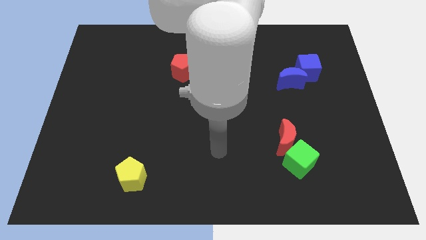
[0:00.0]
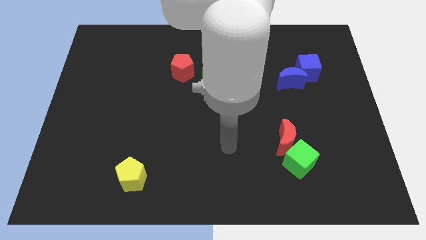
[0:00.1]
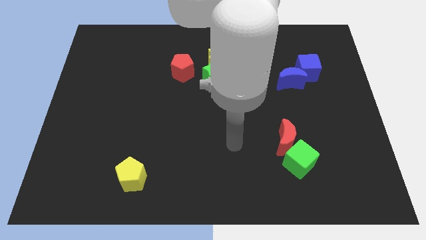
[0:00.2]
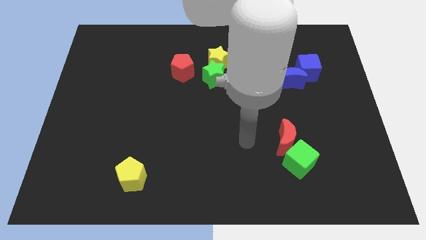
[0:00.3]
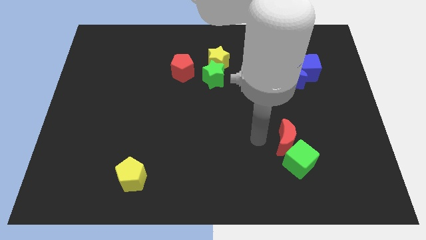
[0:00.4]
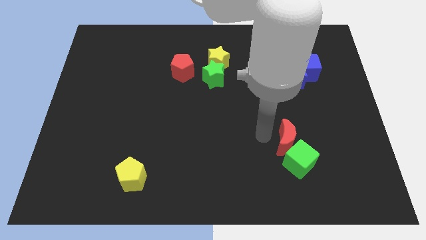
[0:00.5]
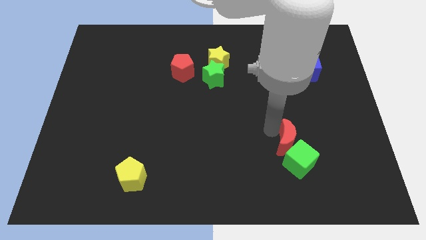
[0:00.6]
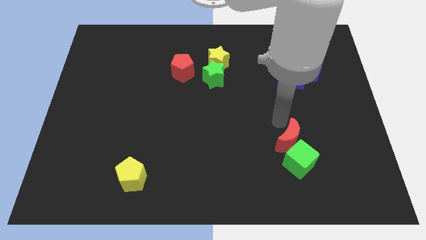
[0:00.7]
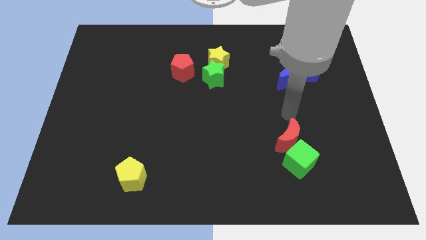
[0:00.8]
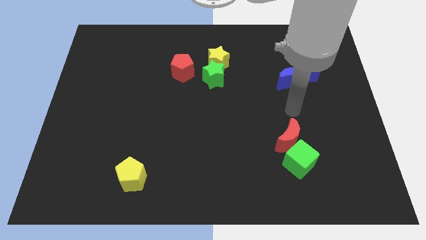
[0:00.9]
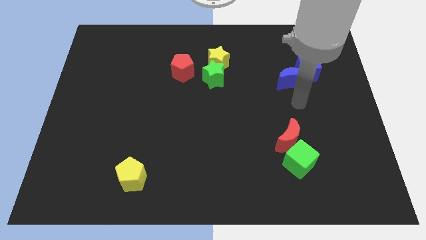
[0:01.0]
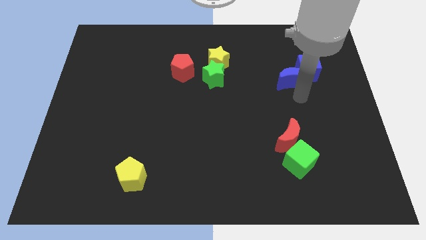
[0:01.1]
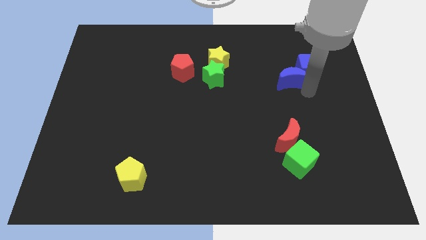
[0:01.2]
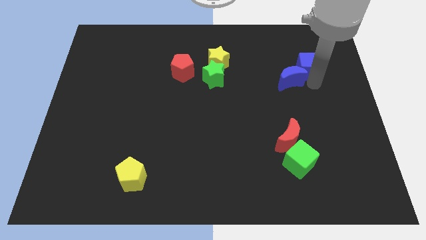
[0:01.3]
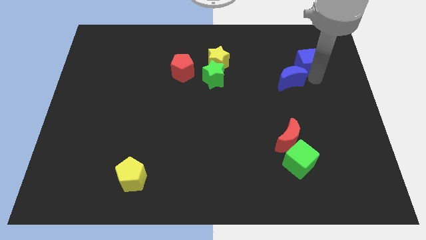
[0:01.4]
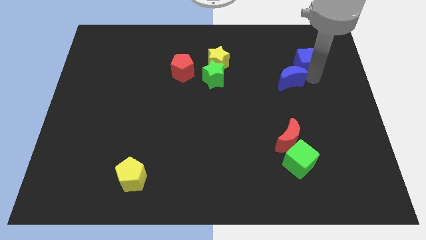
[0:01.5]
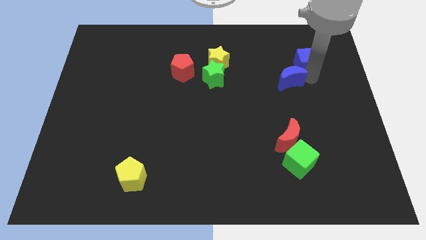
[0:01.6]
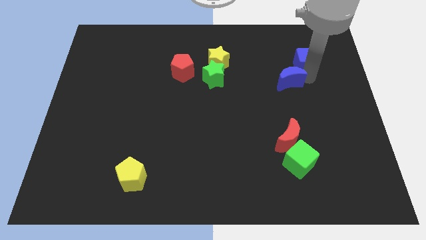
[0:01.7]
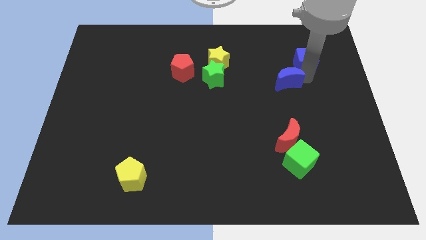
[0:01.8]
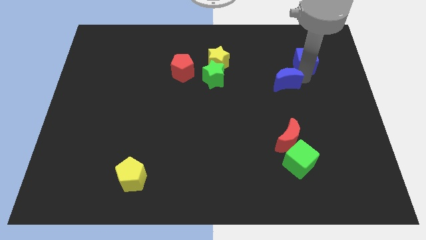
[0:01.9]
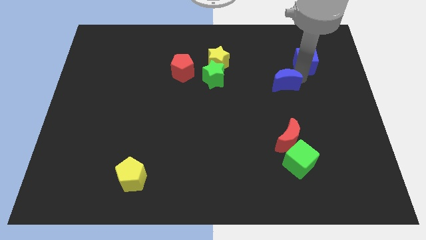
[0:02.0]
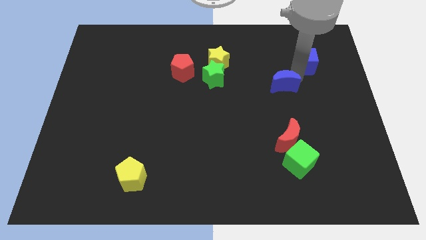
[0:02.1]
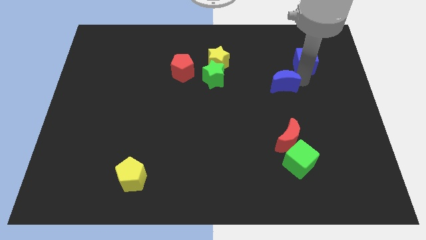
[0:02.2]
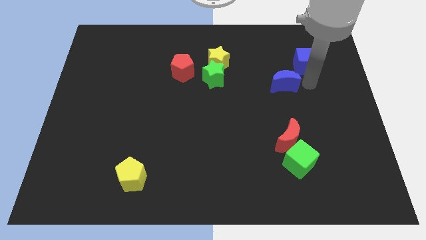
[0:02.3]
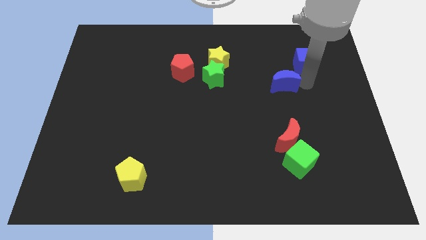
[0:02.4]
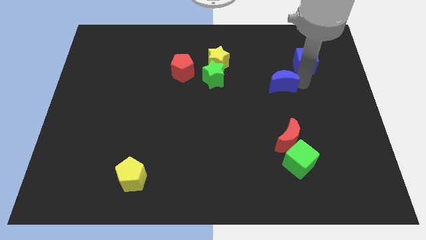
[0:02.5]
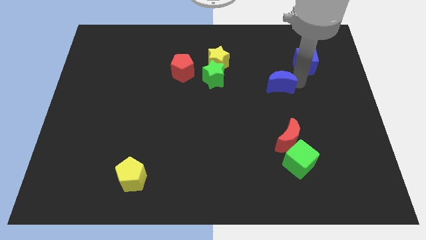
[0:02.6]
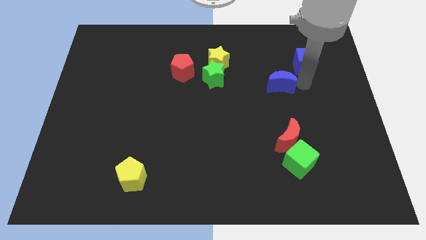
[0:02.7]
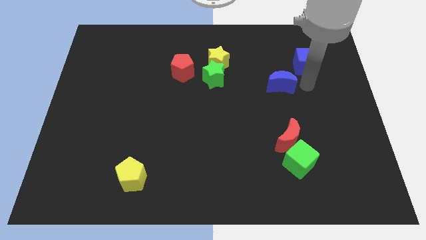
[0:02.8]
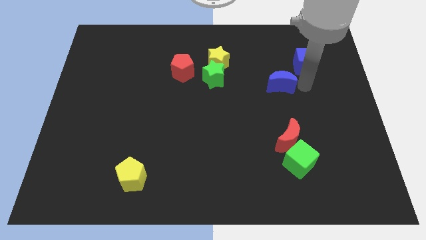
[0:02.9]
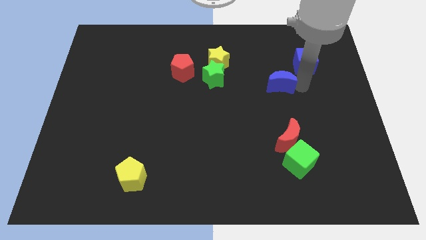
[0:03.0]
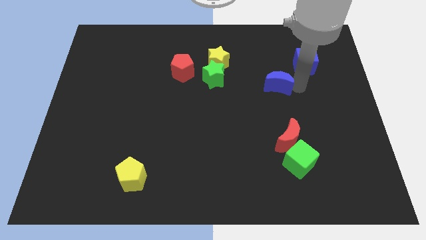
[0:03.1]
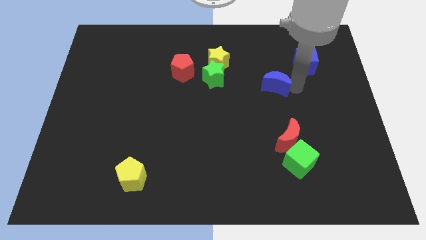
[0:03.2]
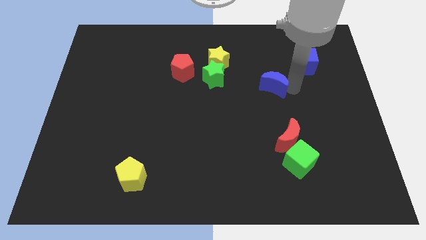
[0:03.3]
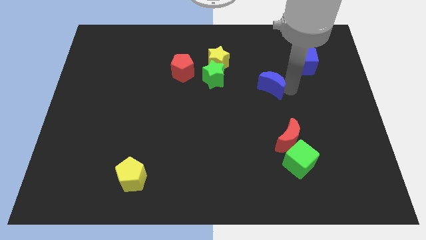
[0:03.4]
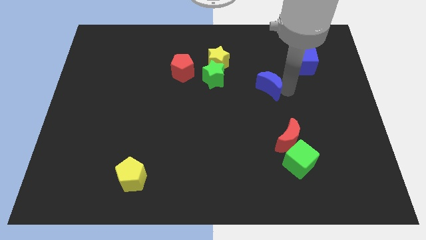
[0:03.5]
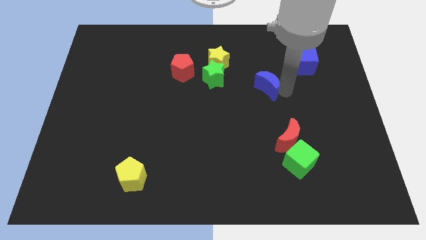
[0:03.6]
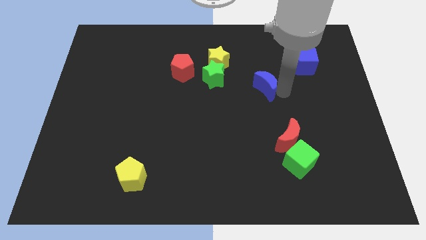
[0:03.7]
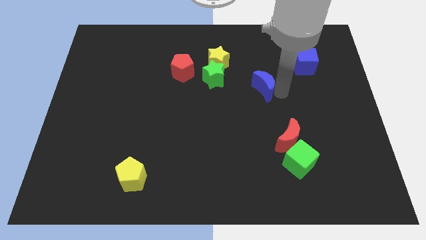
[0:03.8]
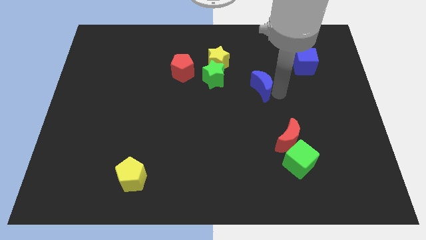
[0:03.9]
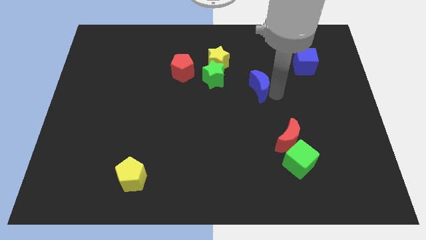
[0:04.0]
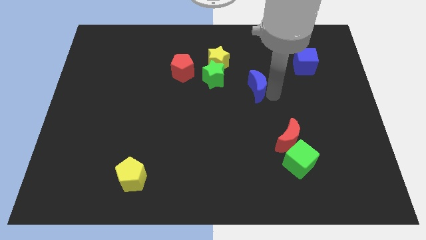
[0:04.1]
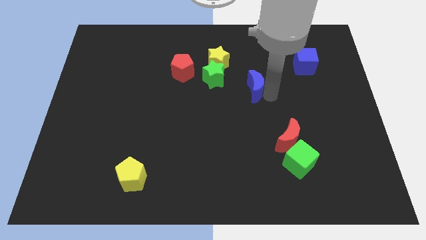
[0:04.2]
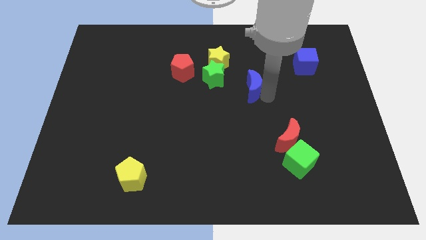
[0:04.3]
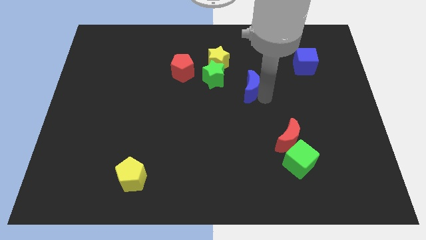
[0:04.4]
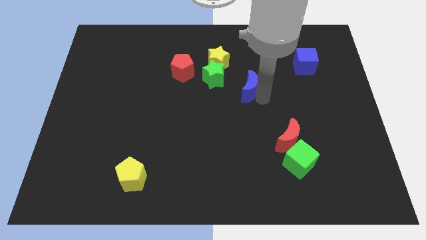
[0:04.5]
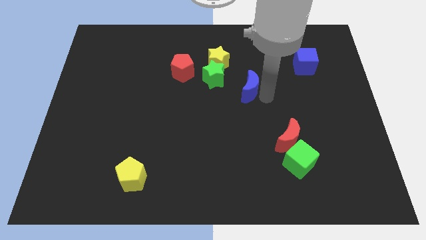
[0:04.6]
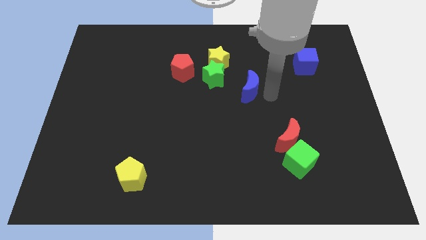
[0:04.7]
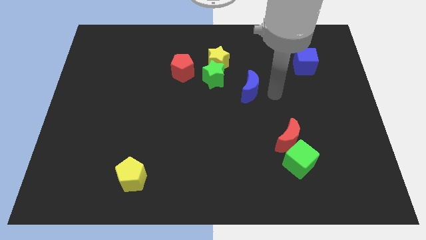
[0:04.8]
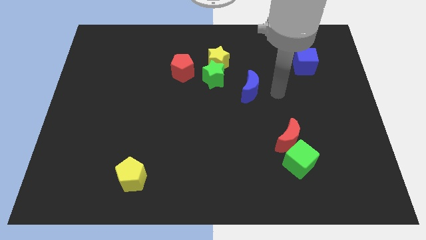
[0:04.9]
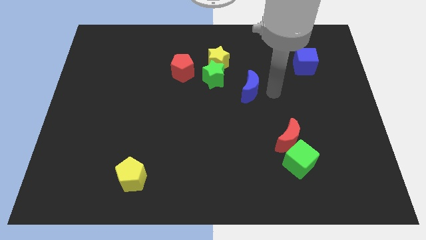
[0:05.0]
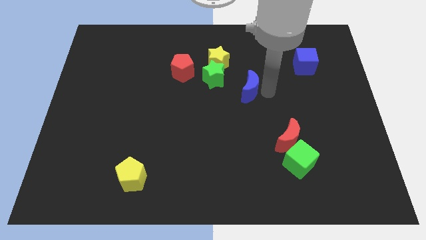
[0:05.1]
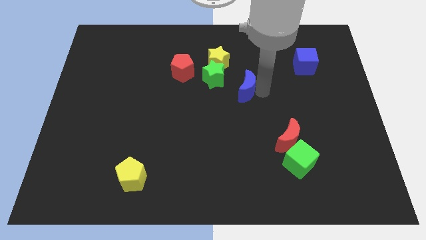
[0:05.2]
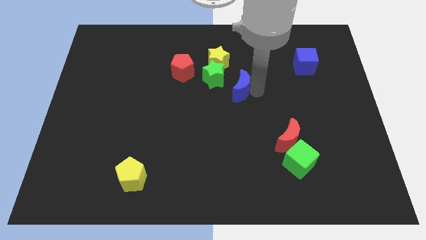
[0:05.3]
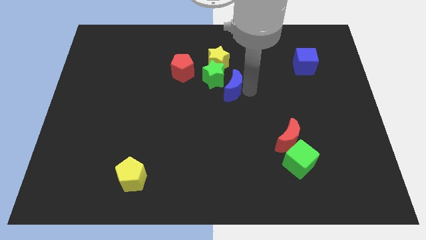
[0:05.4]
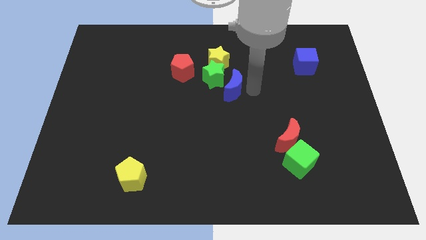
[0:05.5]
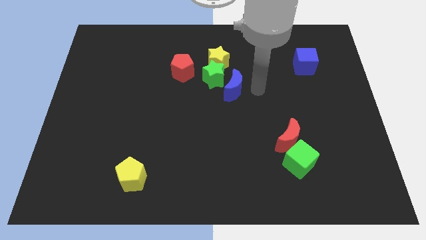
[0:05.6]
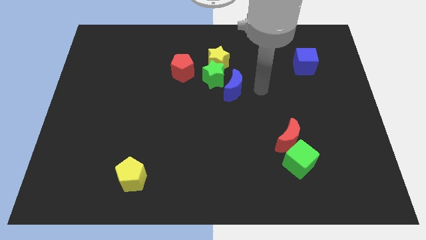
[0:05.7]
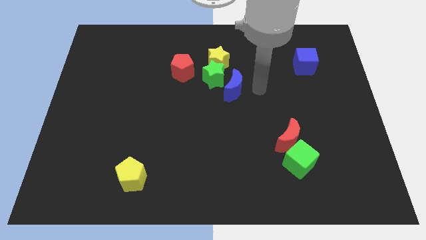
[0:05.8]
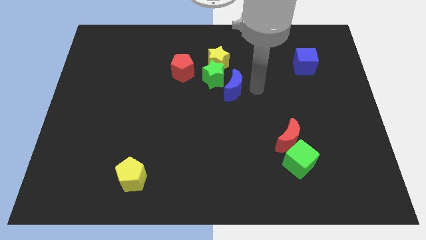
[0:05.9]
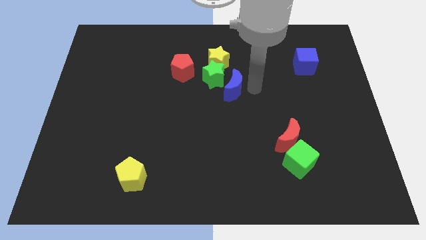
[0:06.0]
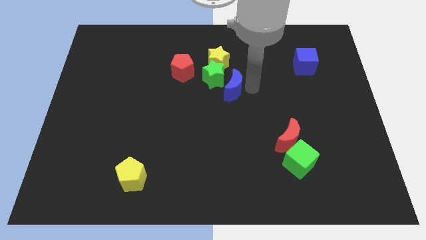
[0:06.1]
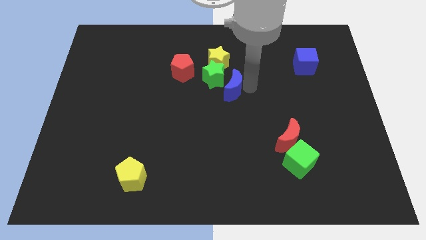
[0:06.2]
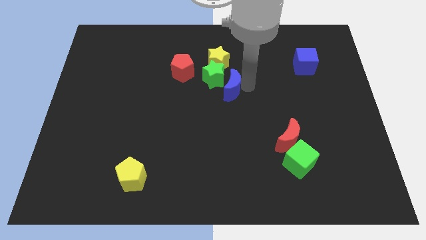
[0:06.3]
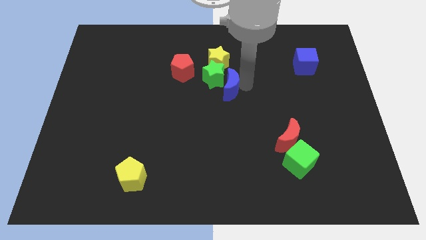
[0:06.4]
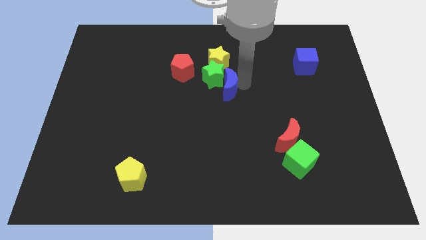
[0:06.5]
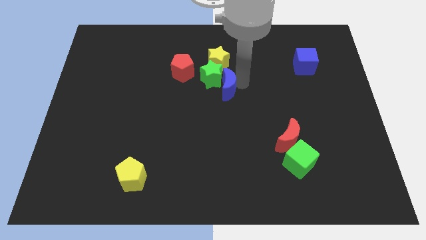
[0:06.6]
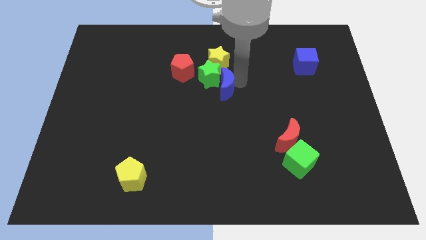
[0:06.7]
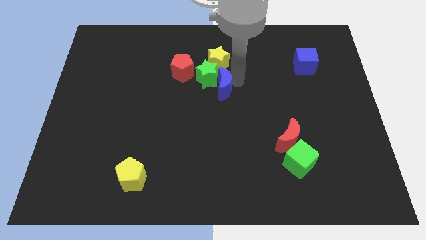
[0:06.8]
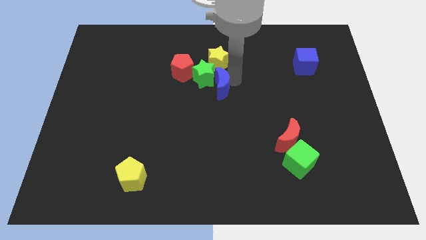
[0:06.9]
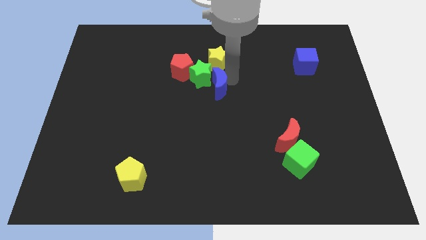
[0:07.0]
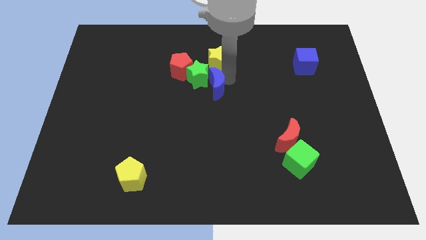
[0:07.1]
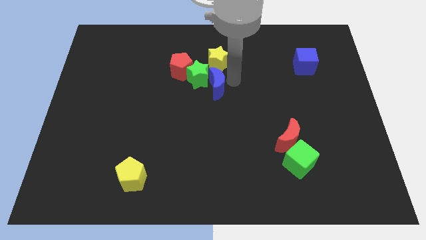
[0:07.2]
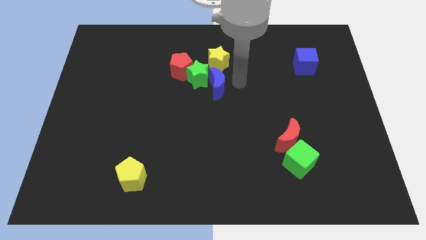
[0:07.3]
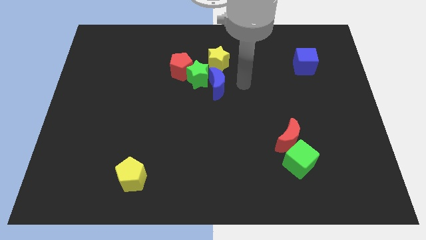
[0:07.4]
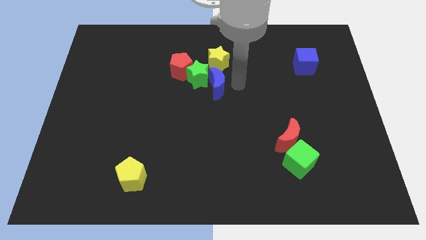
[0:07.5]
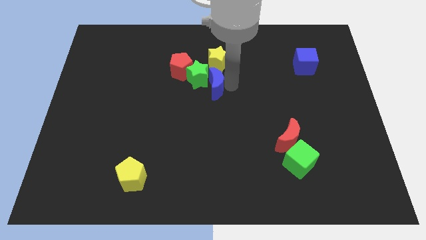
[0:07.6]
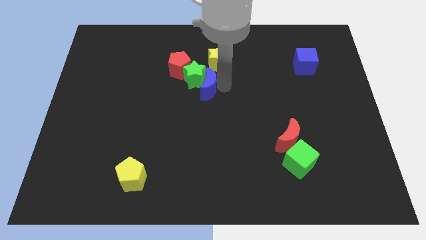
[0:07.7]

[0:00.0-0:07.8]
move the blue moon left

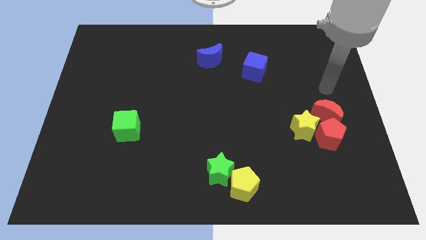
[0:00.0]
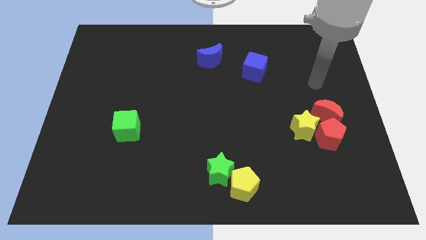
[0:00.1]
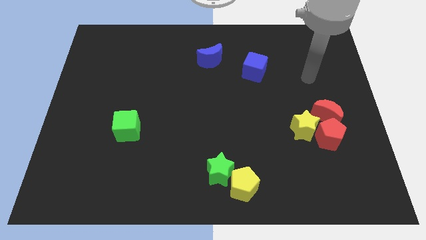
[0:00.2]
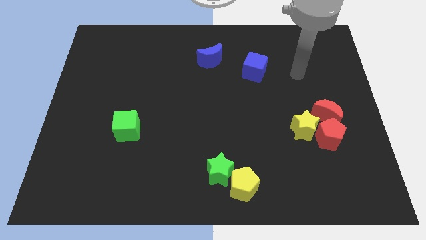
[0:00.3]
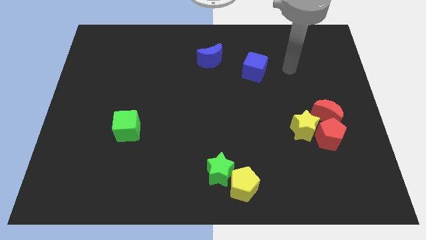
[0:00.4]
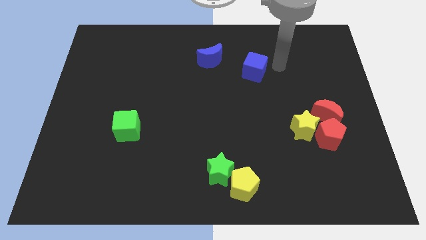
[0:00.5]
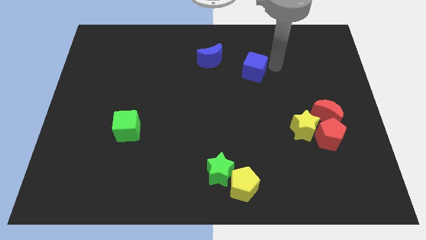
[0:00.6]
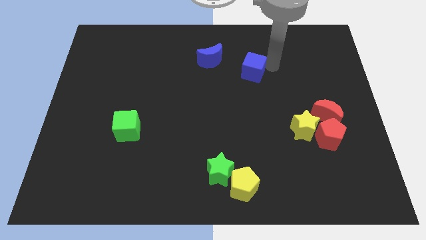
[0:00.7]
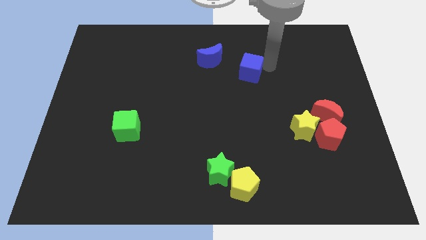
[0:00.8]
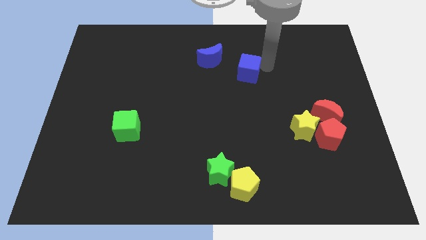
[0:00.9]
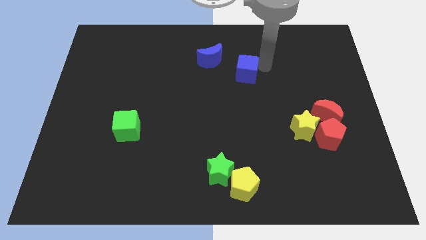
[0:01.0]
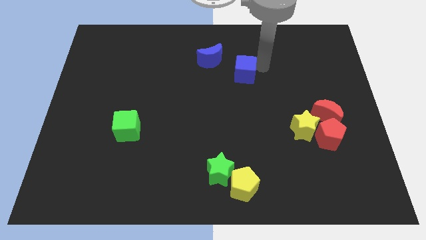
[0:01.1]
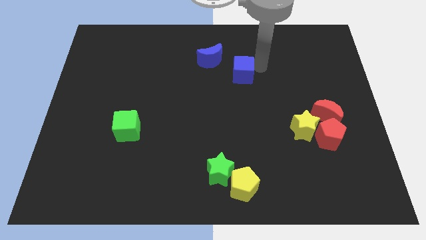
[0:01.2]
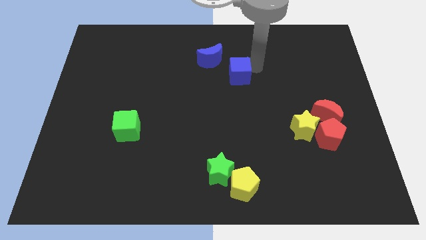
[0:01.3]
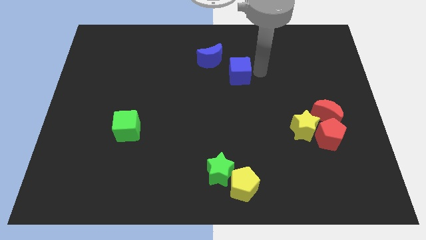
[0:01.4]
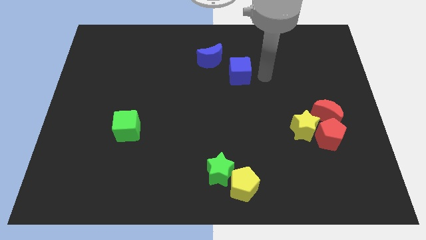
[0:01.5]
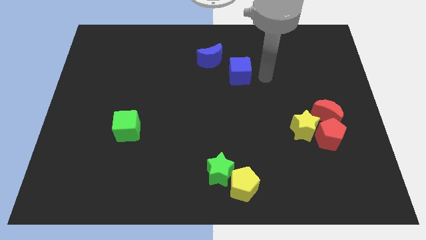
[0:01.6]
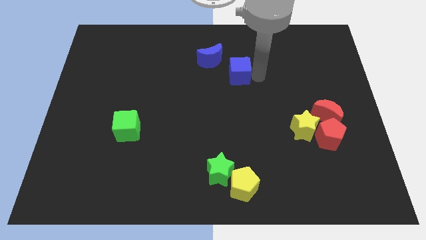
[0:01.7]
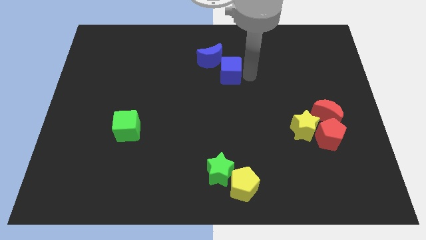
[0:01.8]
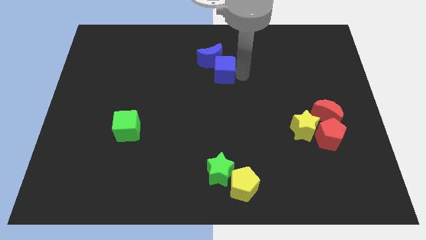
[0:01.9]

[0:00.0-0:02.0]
slightly slide the blue cube left
